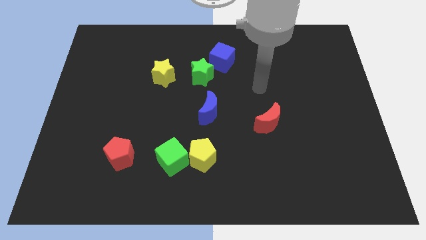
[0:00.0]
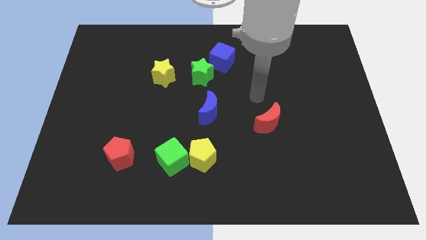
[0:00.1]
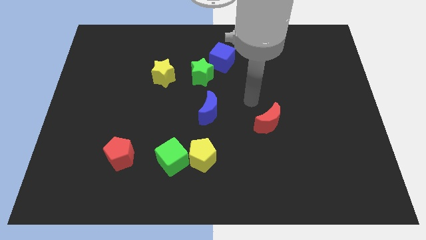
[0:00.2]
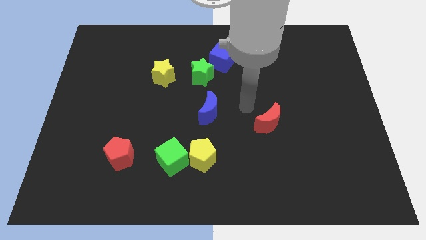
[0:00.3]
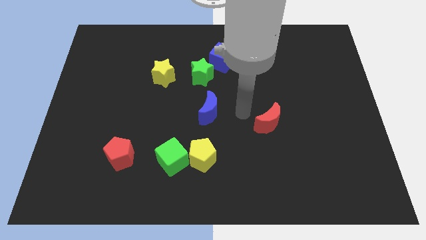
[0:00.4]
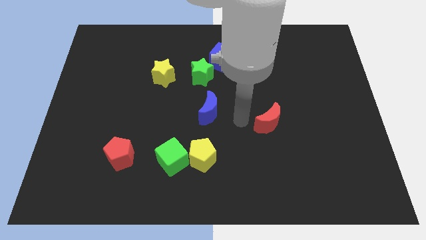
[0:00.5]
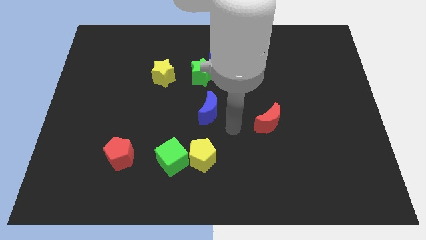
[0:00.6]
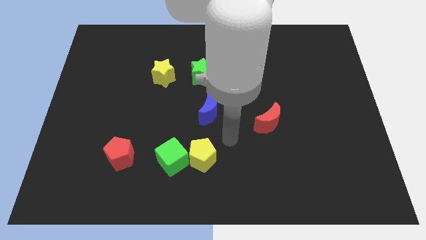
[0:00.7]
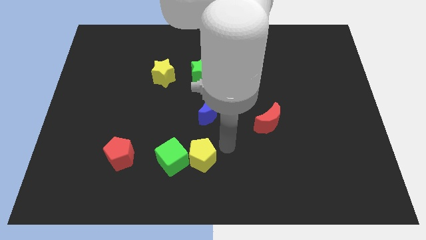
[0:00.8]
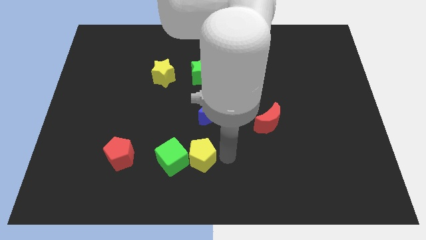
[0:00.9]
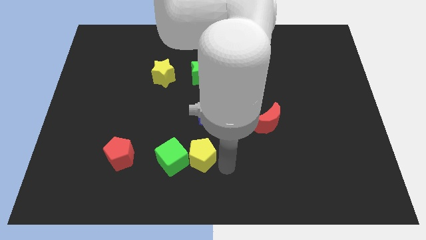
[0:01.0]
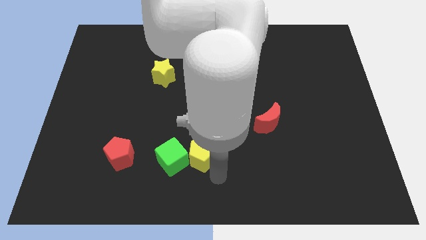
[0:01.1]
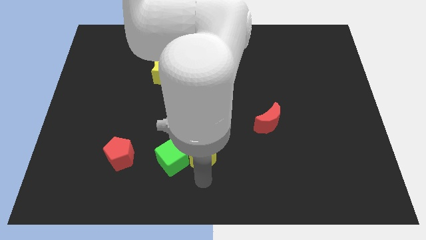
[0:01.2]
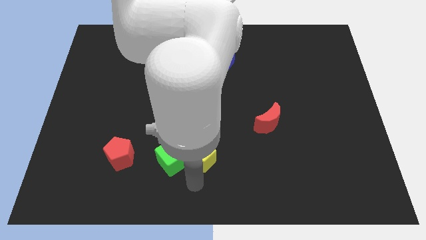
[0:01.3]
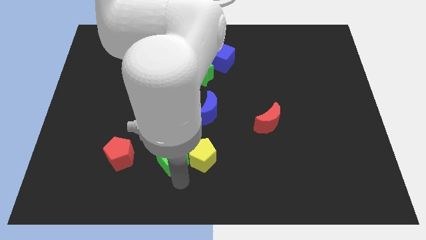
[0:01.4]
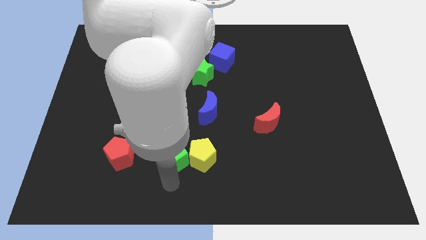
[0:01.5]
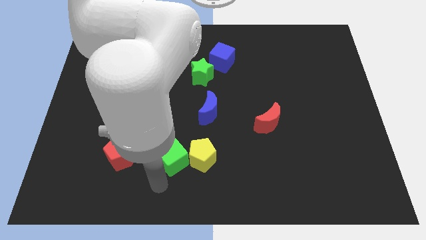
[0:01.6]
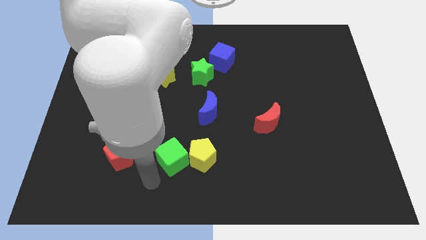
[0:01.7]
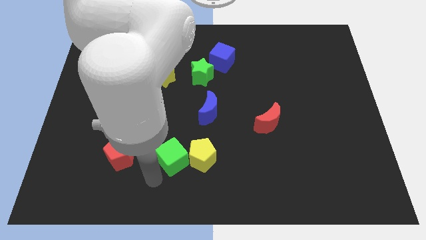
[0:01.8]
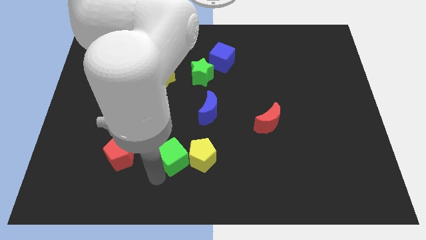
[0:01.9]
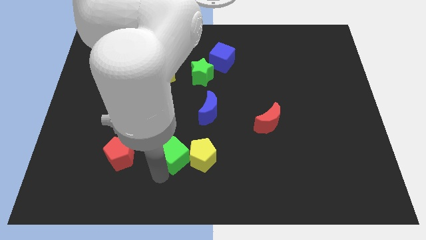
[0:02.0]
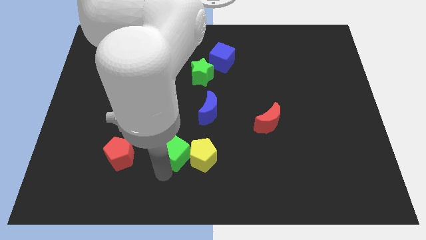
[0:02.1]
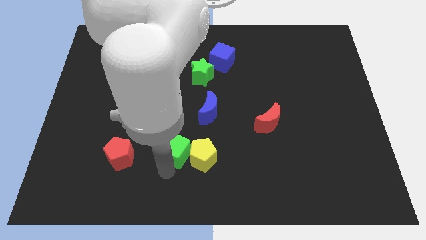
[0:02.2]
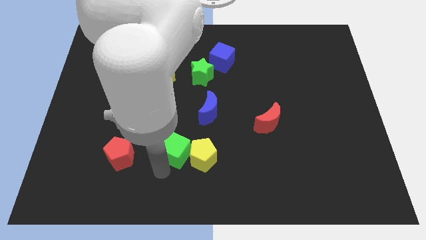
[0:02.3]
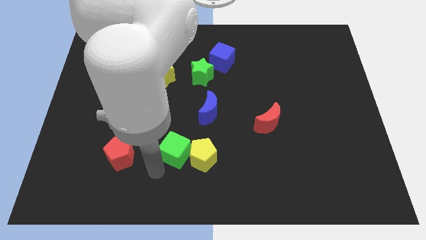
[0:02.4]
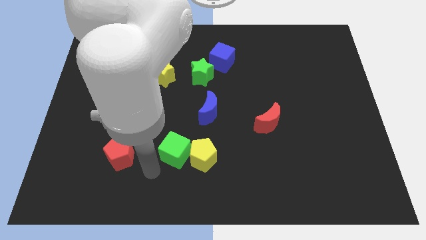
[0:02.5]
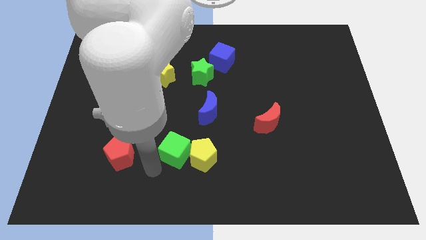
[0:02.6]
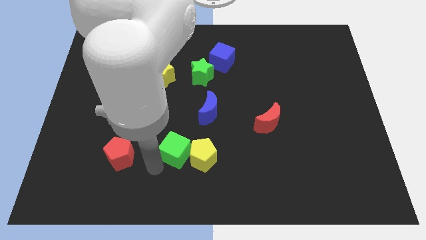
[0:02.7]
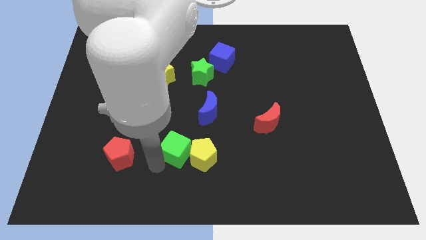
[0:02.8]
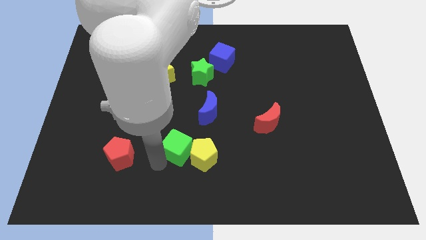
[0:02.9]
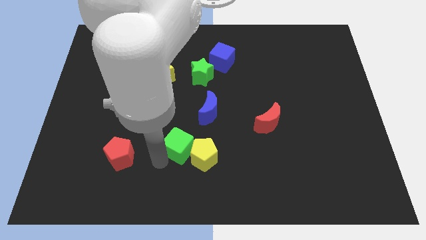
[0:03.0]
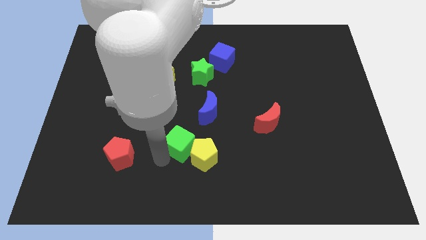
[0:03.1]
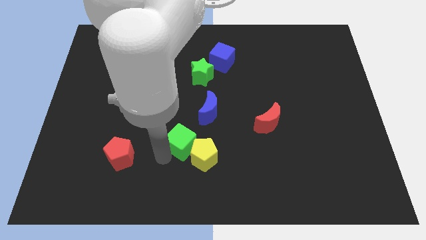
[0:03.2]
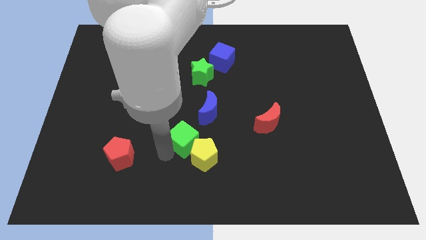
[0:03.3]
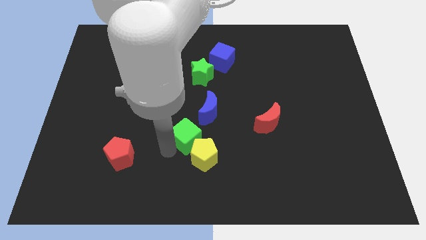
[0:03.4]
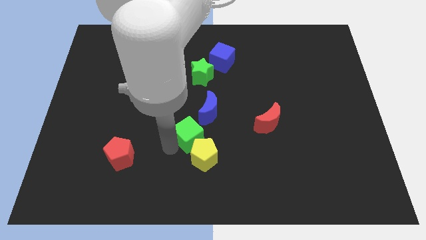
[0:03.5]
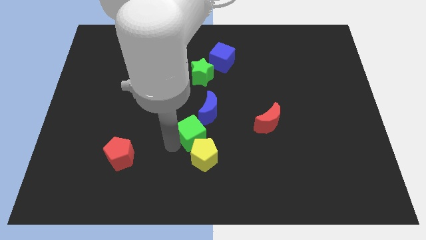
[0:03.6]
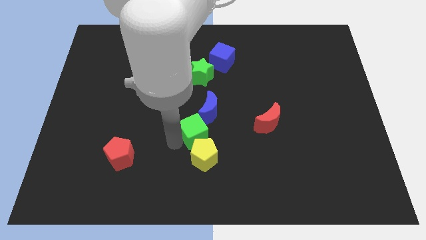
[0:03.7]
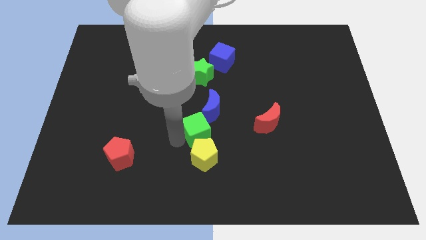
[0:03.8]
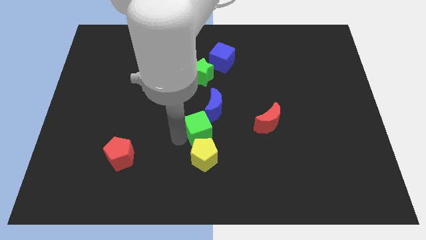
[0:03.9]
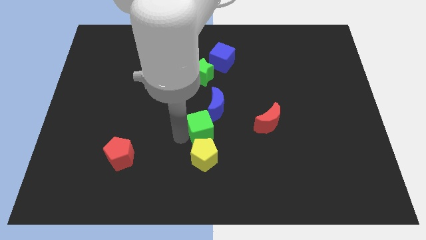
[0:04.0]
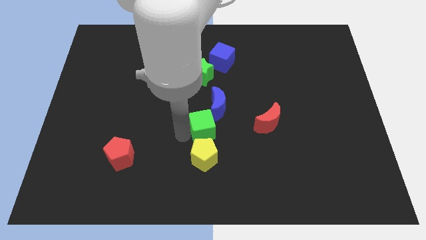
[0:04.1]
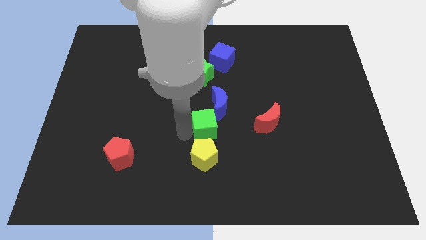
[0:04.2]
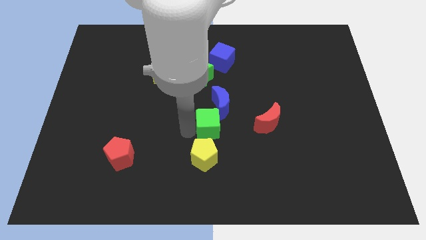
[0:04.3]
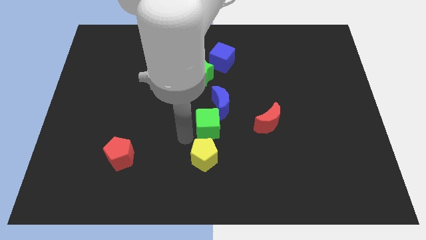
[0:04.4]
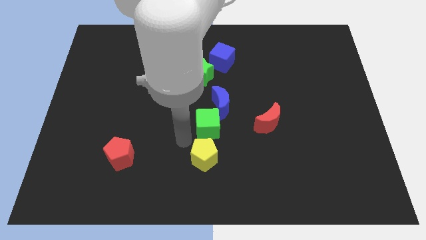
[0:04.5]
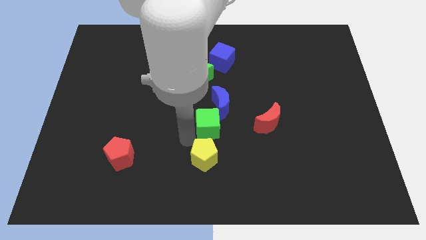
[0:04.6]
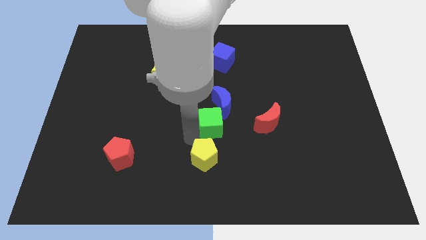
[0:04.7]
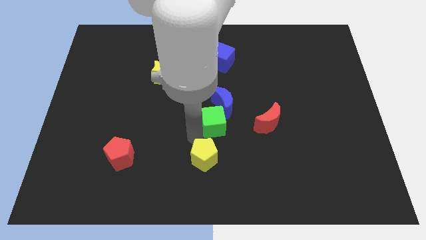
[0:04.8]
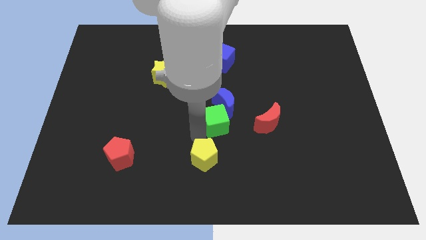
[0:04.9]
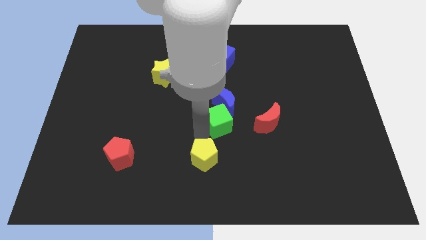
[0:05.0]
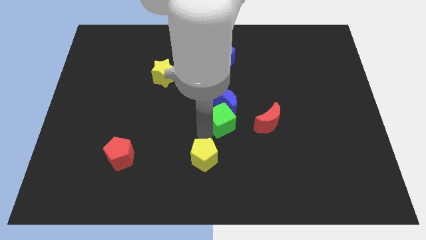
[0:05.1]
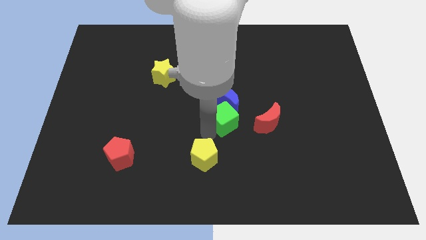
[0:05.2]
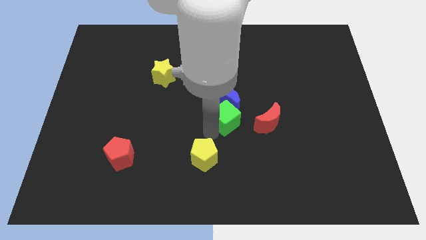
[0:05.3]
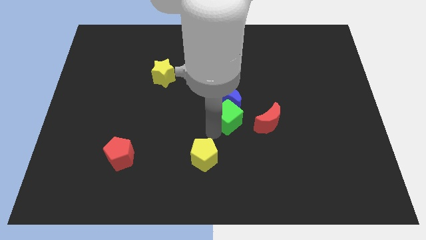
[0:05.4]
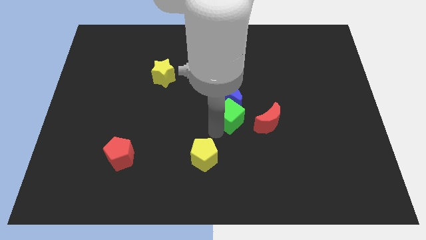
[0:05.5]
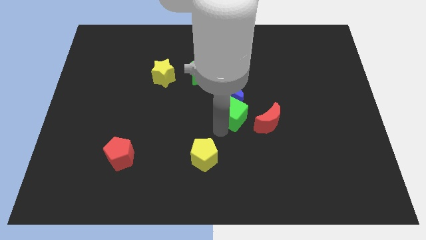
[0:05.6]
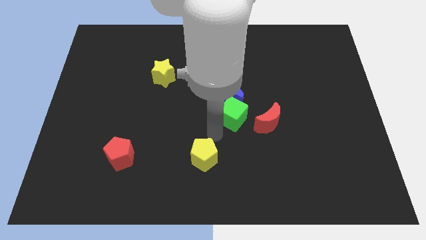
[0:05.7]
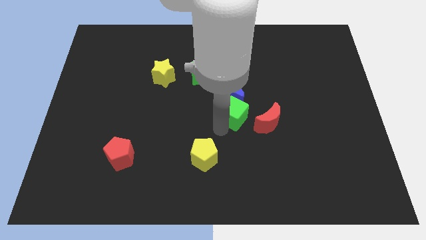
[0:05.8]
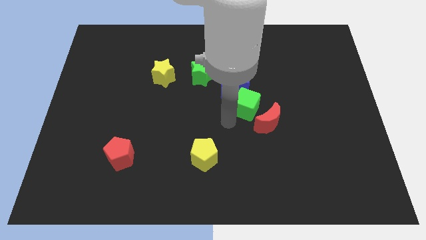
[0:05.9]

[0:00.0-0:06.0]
move the green cube upwards and then to the right

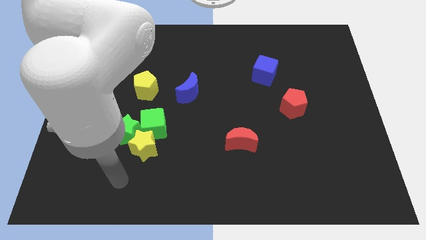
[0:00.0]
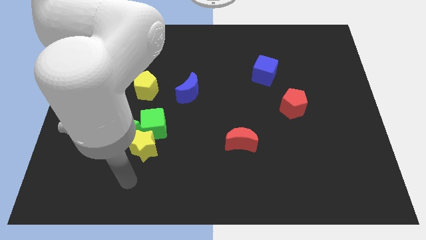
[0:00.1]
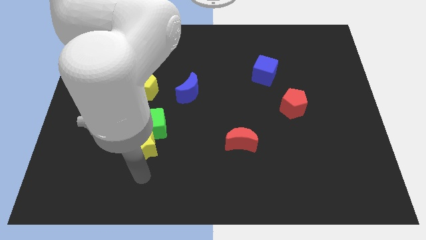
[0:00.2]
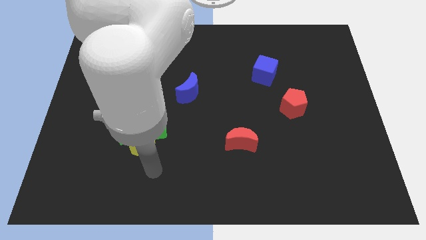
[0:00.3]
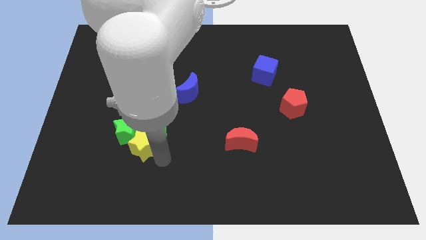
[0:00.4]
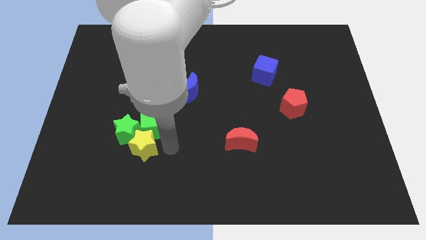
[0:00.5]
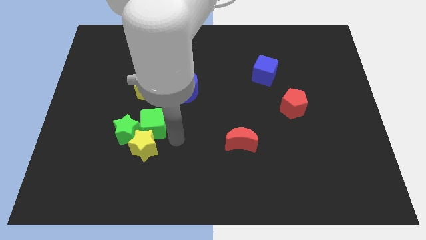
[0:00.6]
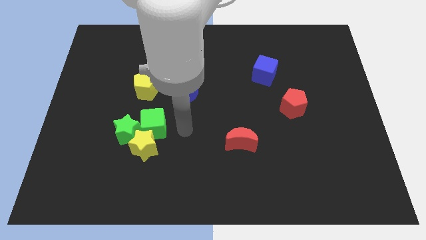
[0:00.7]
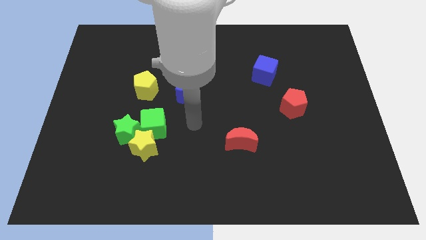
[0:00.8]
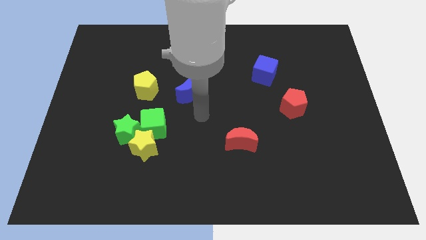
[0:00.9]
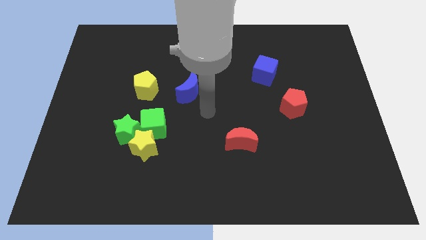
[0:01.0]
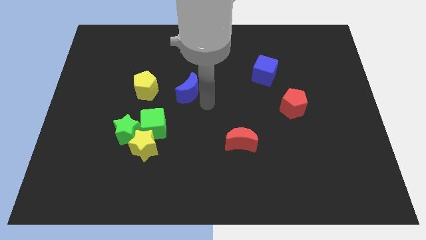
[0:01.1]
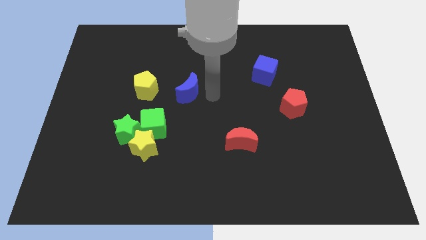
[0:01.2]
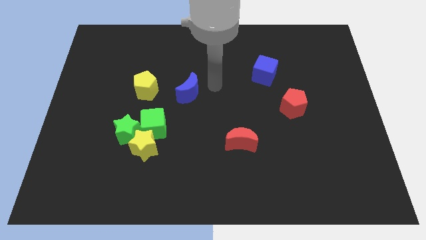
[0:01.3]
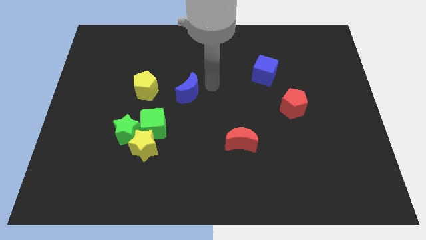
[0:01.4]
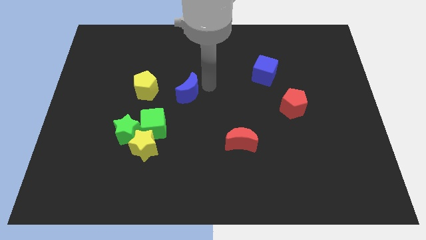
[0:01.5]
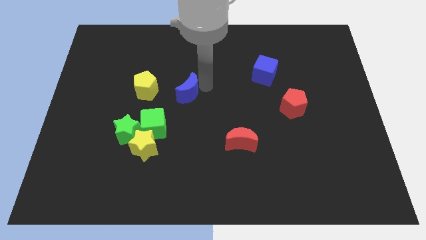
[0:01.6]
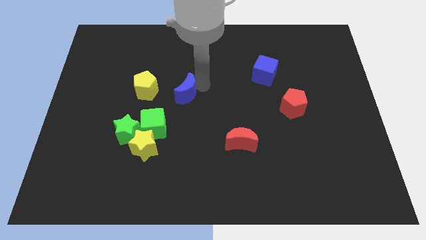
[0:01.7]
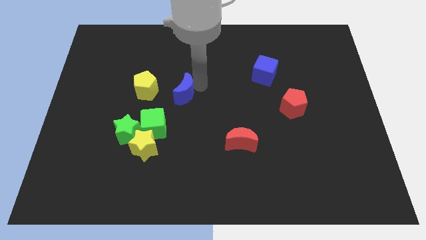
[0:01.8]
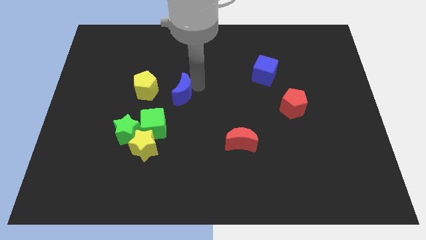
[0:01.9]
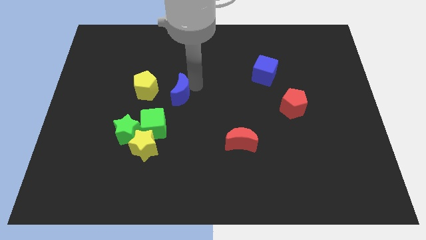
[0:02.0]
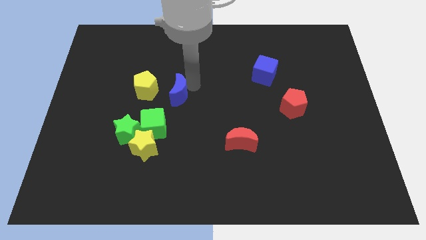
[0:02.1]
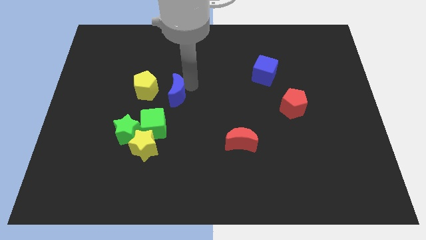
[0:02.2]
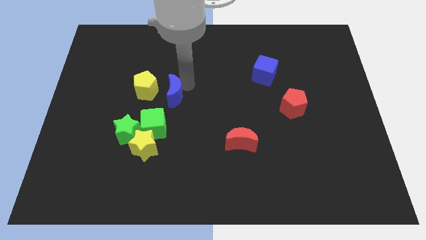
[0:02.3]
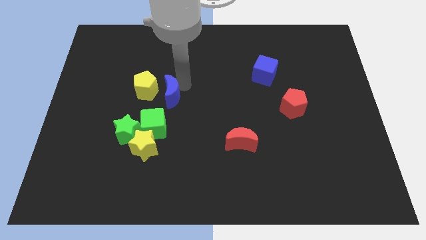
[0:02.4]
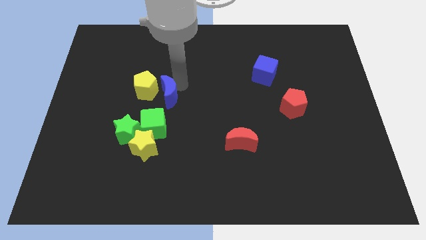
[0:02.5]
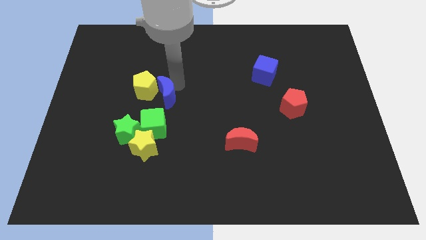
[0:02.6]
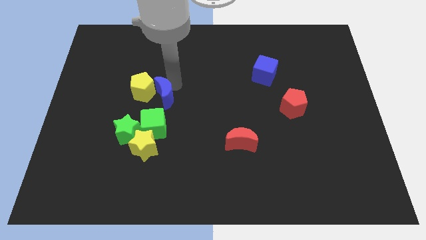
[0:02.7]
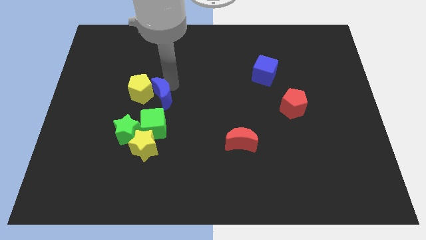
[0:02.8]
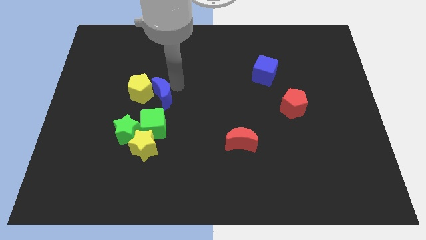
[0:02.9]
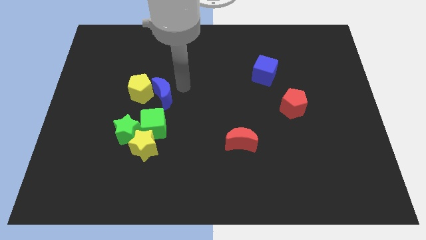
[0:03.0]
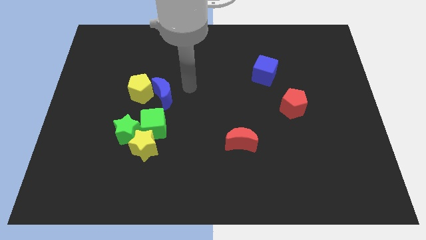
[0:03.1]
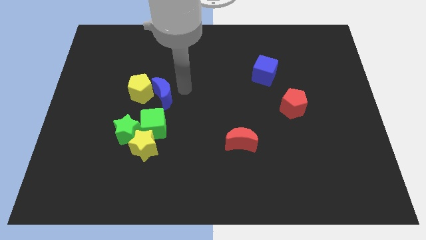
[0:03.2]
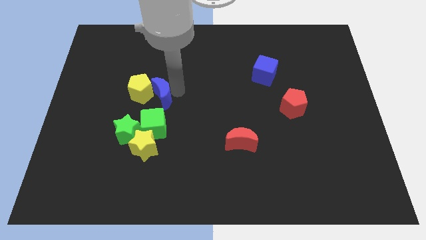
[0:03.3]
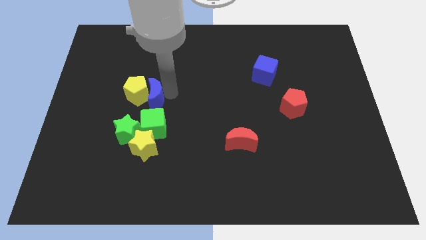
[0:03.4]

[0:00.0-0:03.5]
slide the blue moon a little bit to the left
